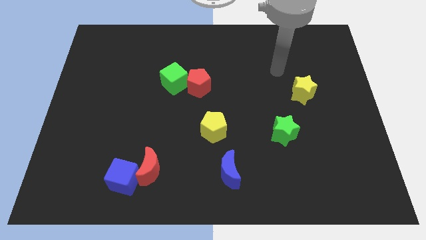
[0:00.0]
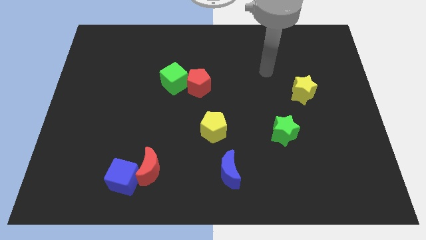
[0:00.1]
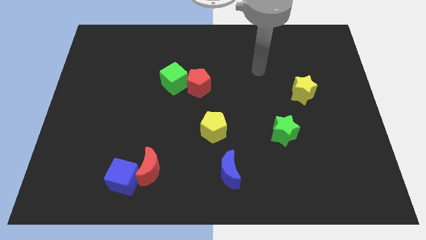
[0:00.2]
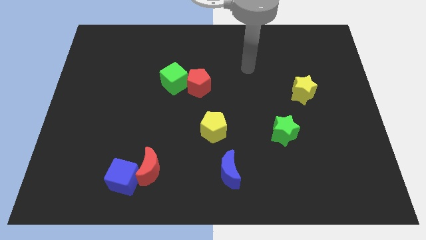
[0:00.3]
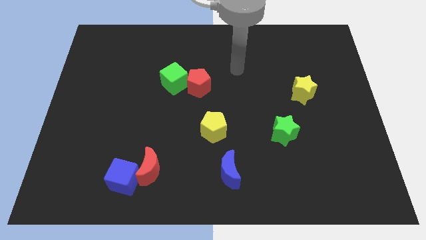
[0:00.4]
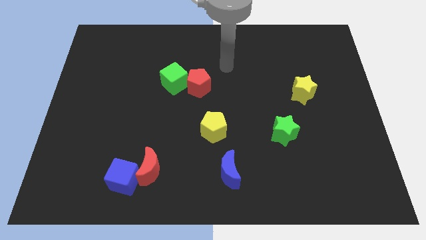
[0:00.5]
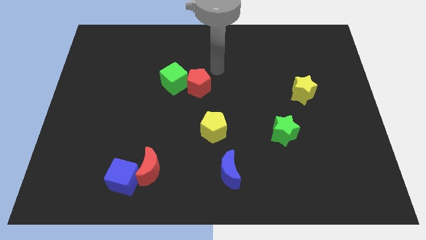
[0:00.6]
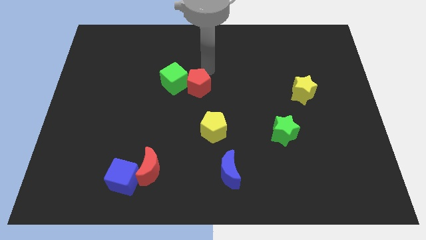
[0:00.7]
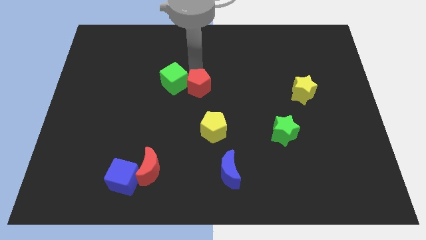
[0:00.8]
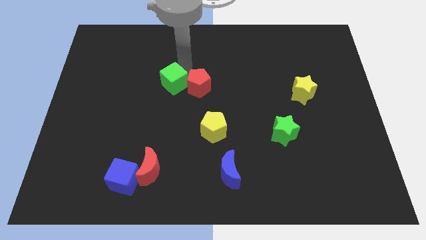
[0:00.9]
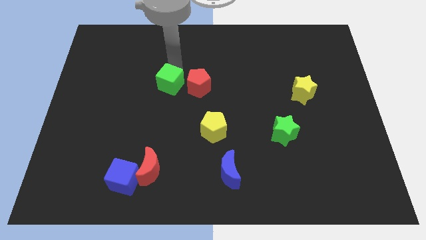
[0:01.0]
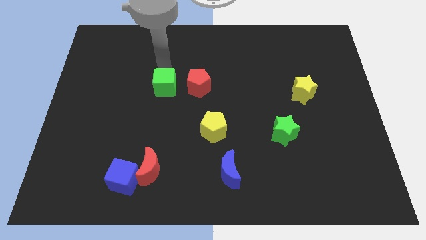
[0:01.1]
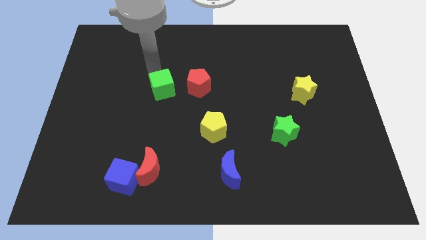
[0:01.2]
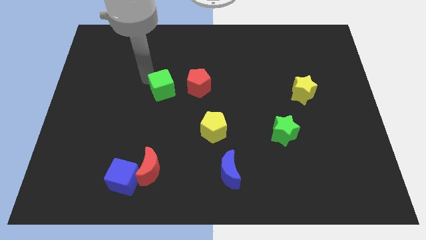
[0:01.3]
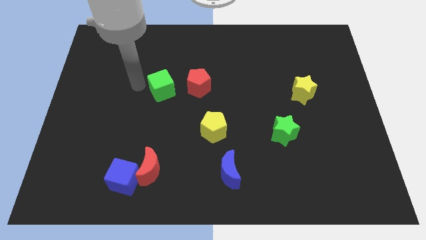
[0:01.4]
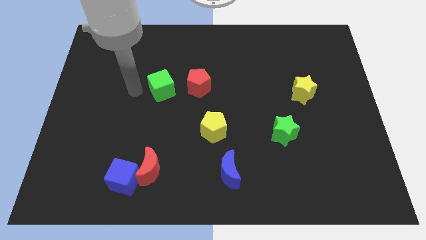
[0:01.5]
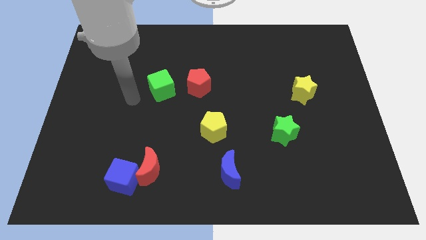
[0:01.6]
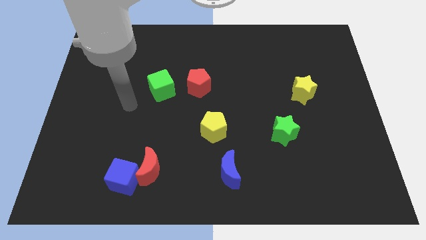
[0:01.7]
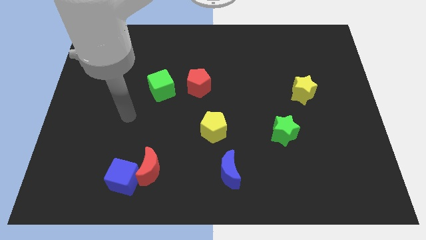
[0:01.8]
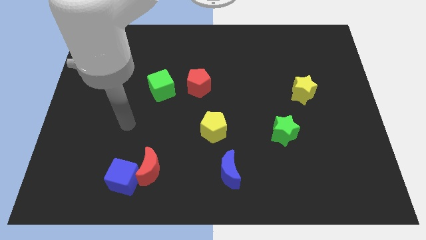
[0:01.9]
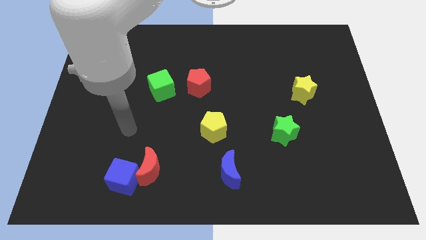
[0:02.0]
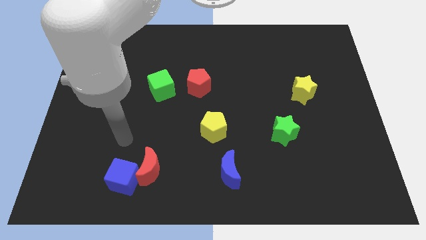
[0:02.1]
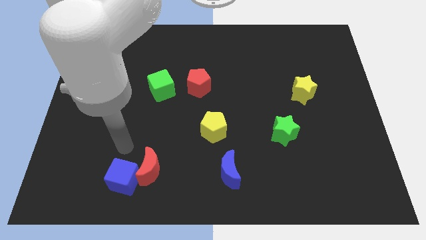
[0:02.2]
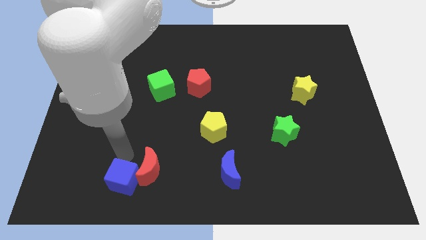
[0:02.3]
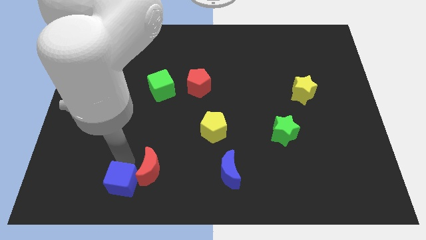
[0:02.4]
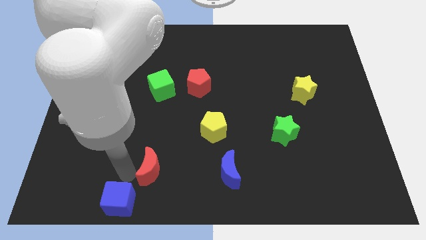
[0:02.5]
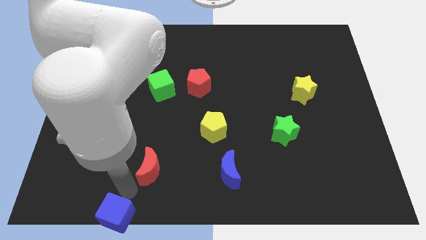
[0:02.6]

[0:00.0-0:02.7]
move the red moon away from the blue cube

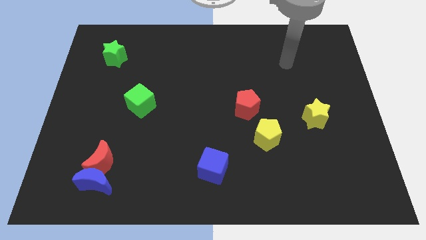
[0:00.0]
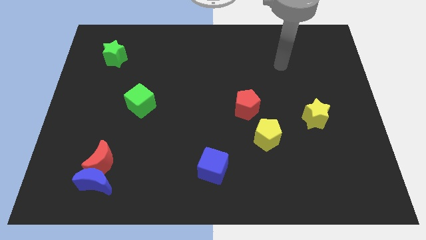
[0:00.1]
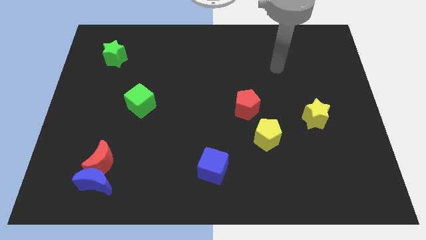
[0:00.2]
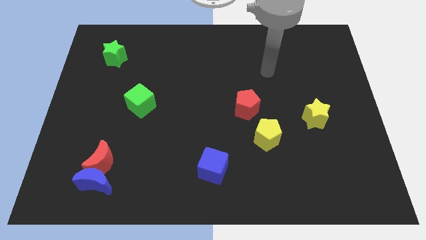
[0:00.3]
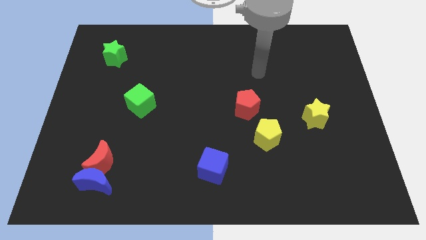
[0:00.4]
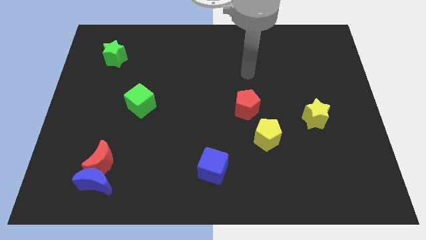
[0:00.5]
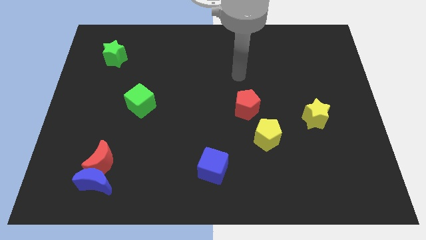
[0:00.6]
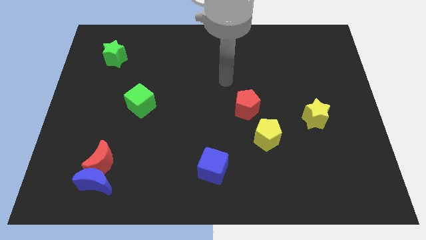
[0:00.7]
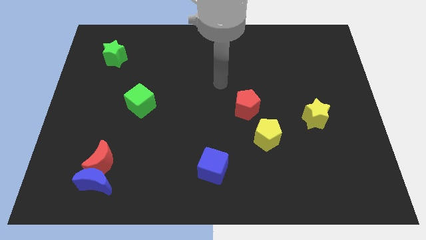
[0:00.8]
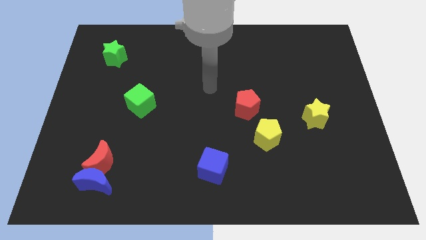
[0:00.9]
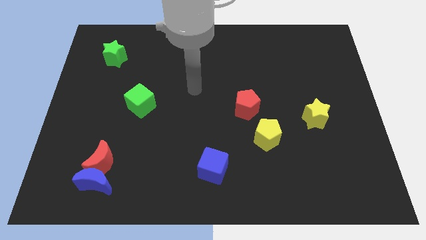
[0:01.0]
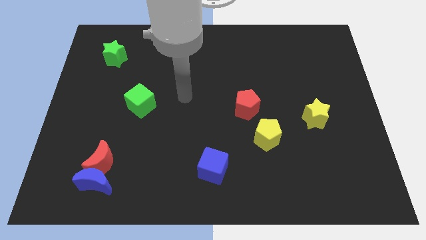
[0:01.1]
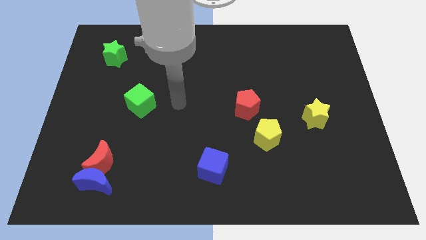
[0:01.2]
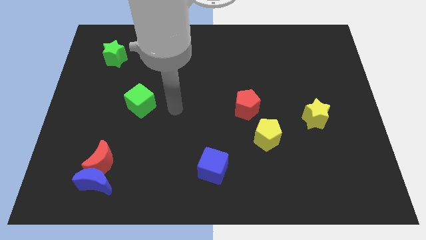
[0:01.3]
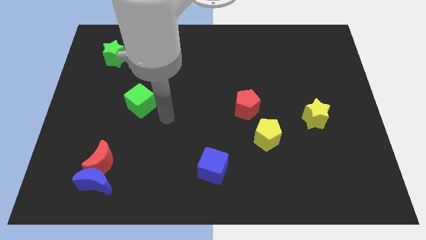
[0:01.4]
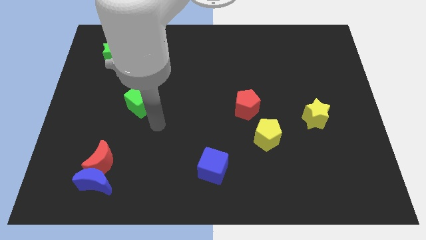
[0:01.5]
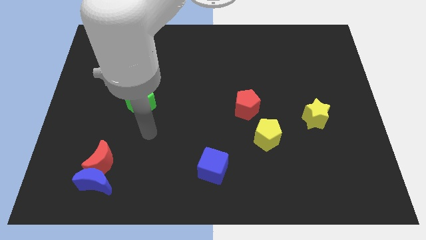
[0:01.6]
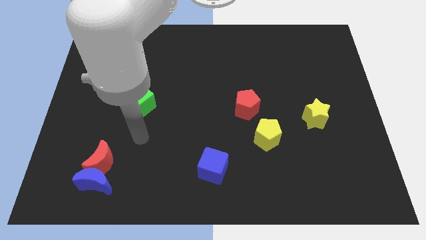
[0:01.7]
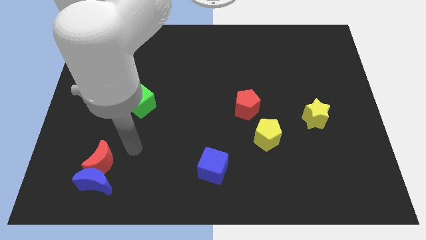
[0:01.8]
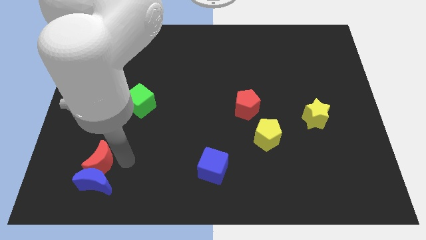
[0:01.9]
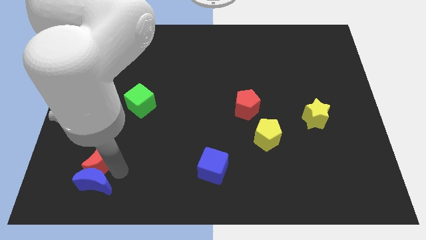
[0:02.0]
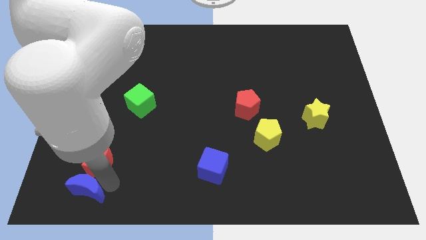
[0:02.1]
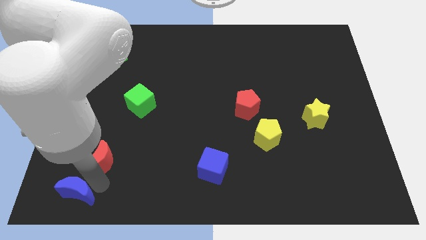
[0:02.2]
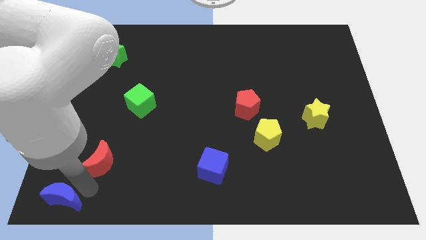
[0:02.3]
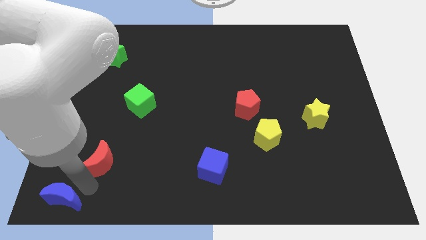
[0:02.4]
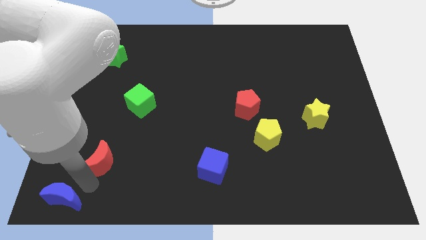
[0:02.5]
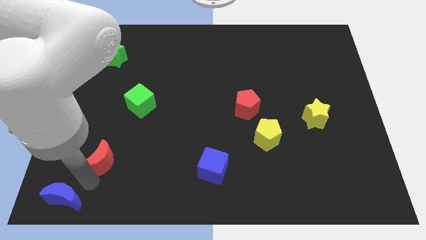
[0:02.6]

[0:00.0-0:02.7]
separate the red moon from the blue moon

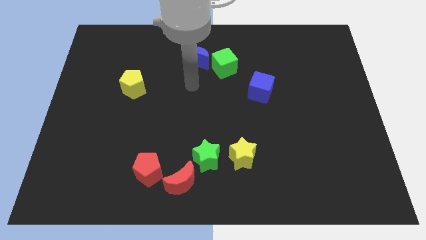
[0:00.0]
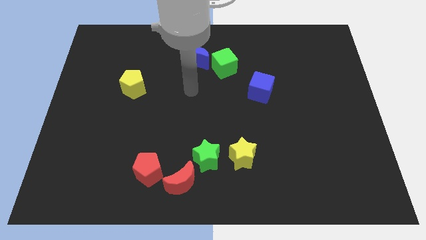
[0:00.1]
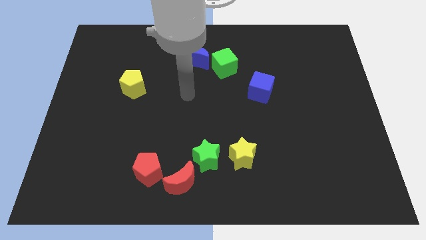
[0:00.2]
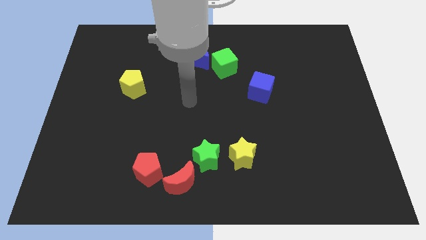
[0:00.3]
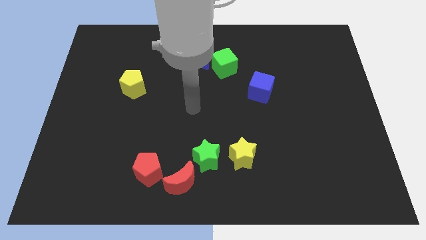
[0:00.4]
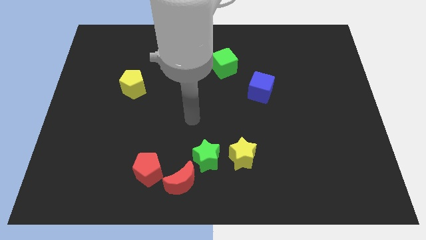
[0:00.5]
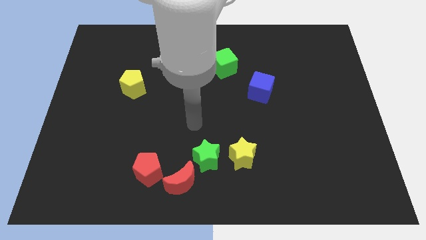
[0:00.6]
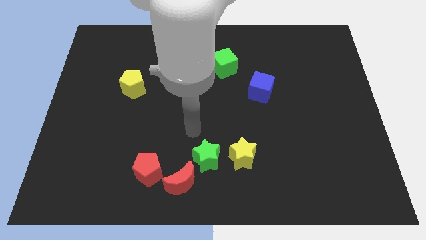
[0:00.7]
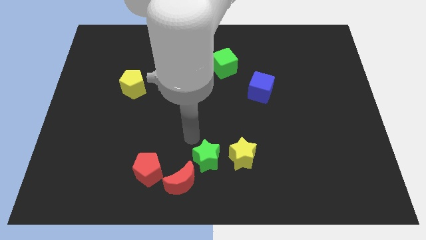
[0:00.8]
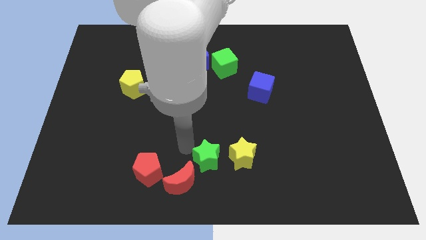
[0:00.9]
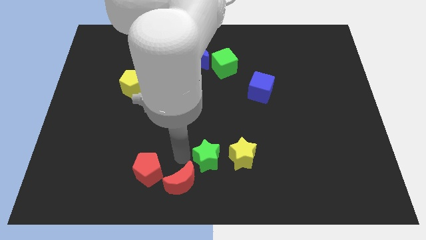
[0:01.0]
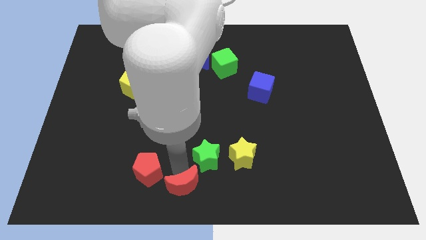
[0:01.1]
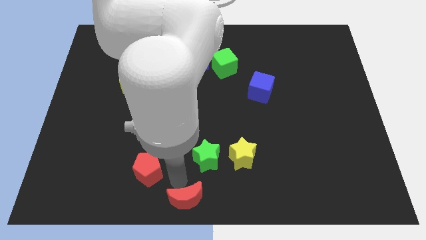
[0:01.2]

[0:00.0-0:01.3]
move the red pentagon away from the red moon

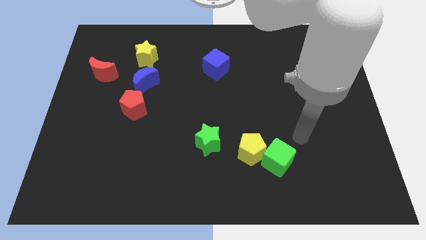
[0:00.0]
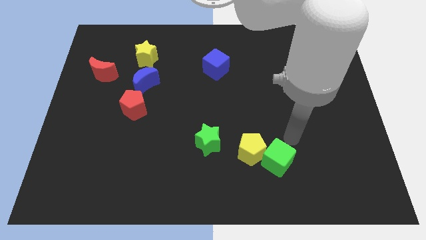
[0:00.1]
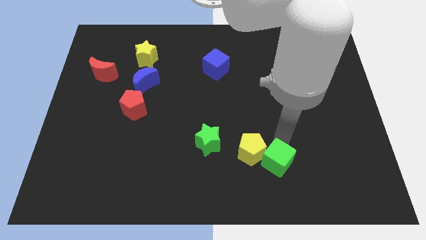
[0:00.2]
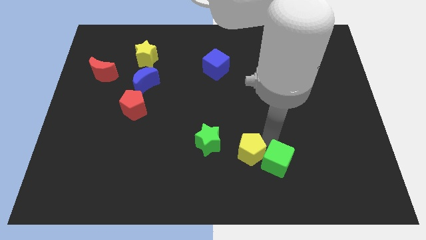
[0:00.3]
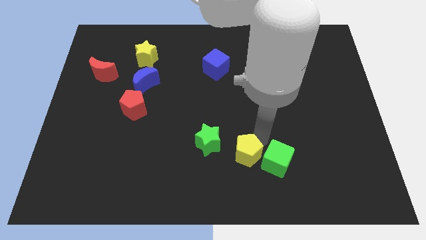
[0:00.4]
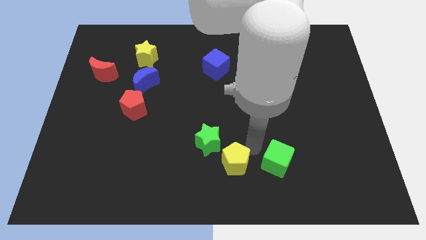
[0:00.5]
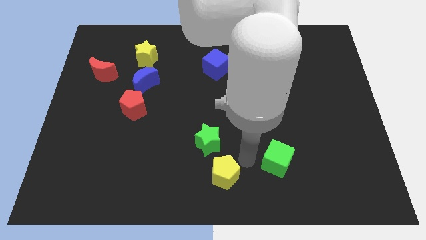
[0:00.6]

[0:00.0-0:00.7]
move the green cube away from the yellow pentagon

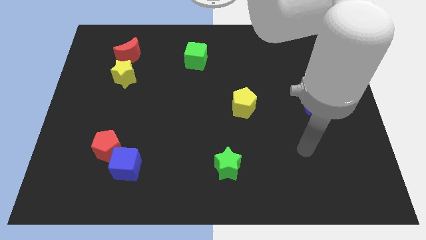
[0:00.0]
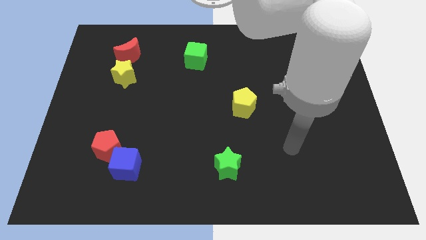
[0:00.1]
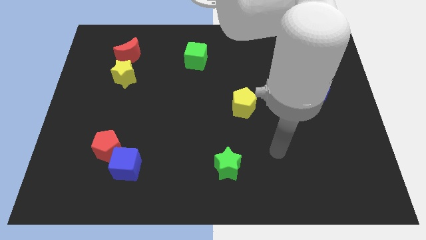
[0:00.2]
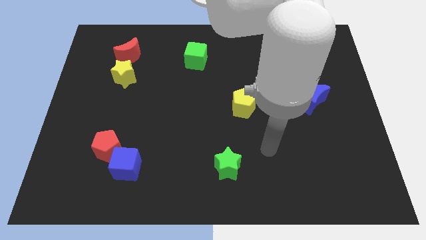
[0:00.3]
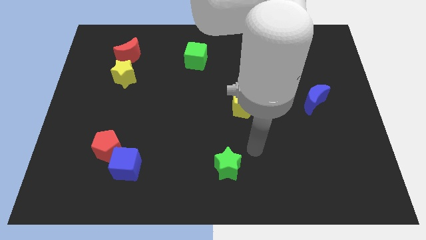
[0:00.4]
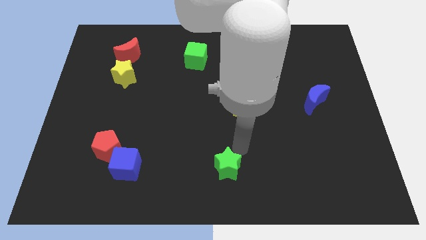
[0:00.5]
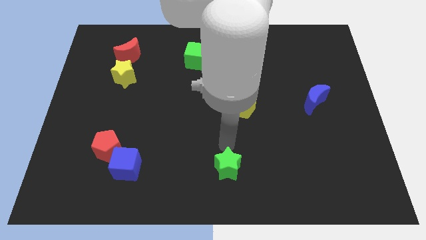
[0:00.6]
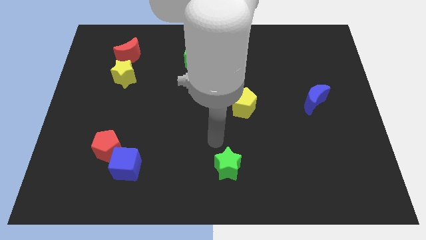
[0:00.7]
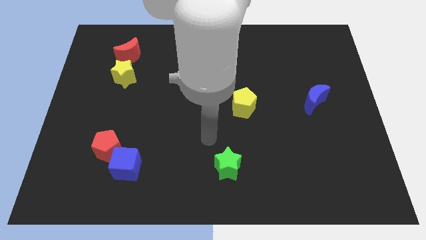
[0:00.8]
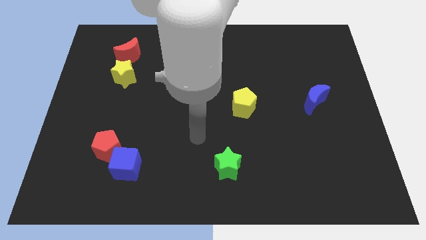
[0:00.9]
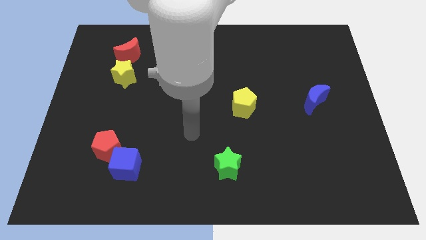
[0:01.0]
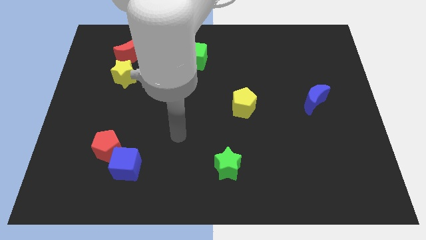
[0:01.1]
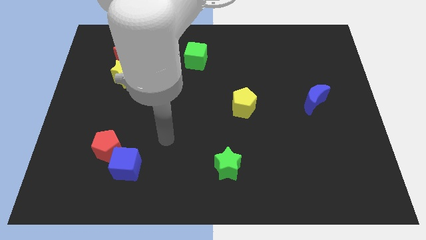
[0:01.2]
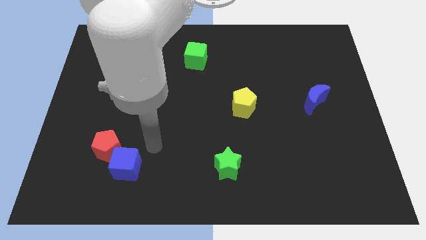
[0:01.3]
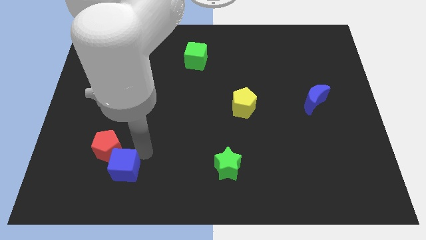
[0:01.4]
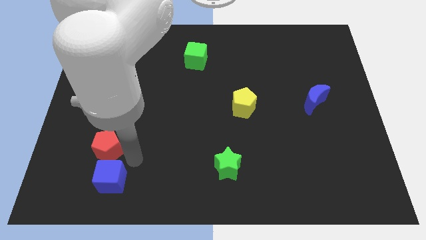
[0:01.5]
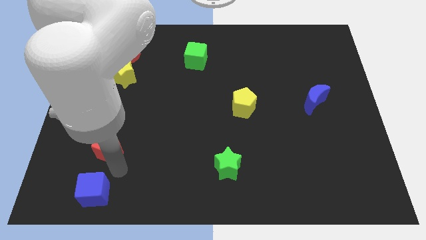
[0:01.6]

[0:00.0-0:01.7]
pull the red pentagon apart from the blue cube

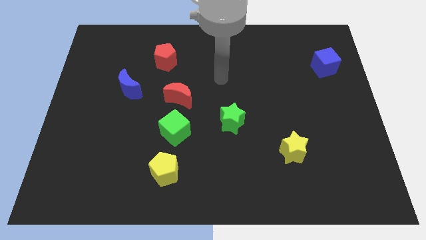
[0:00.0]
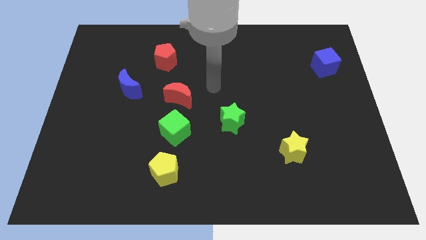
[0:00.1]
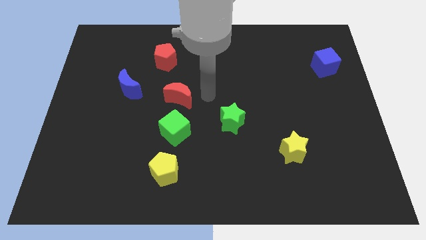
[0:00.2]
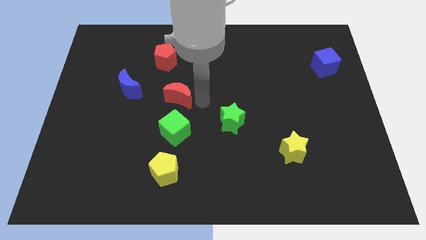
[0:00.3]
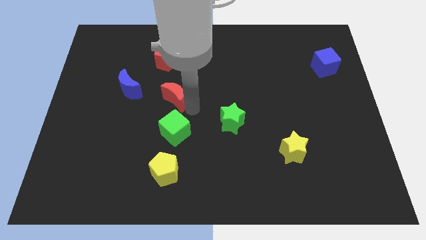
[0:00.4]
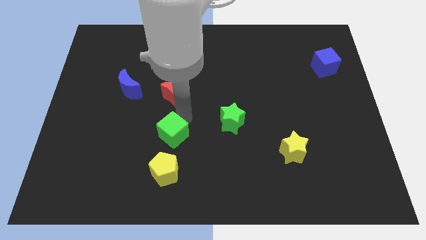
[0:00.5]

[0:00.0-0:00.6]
separate the red moon from the green cube
